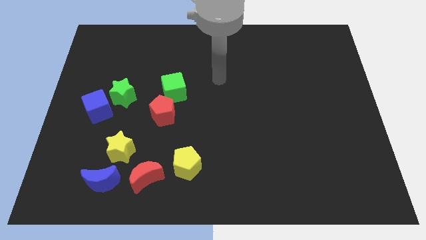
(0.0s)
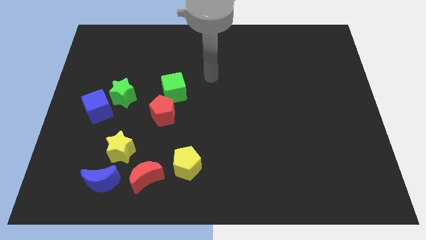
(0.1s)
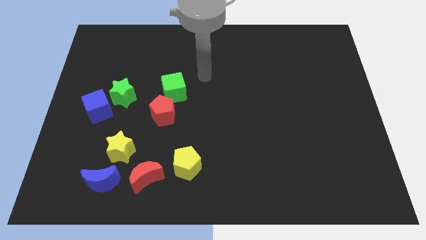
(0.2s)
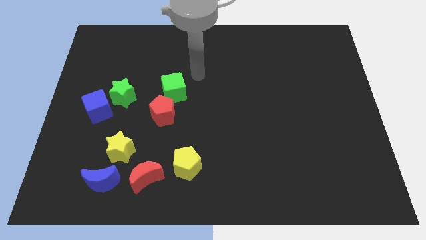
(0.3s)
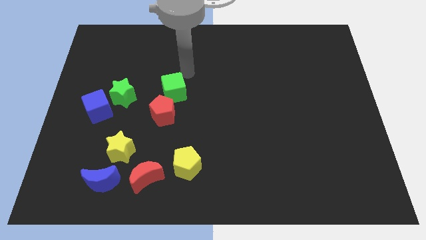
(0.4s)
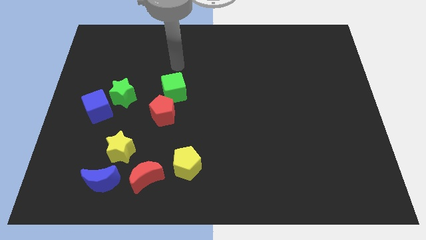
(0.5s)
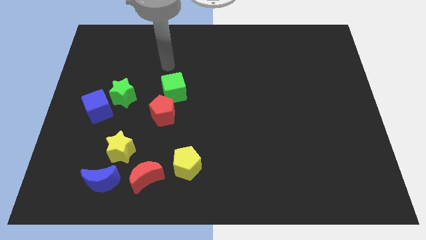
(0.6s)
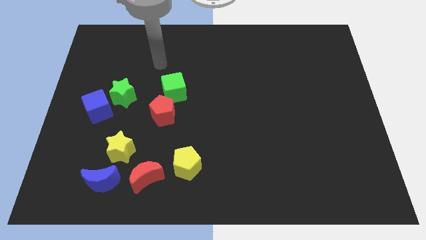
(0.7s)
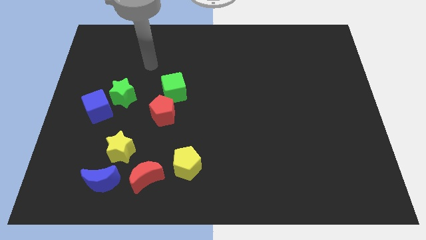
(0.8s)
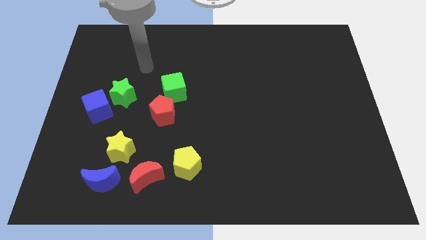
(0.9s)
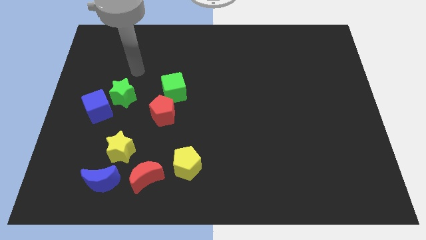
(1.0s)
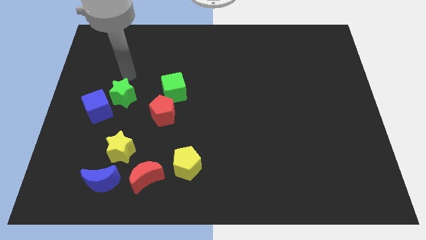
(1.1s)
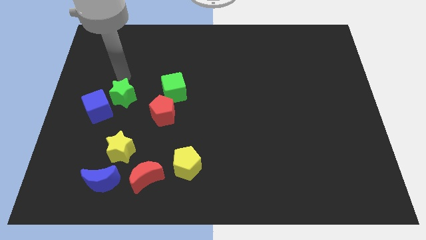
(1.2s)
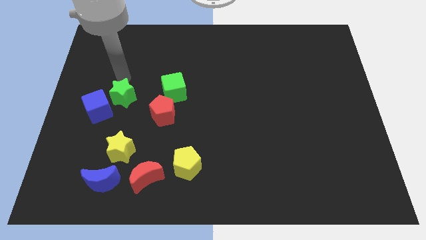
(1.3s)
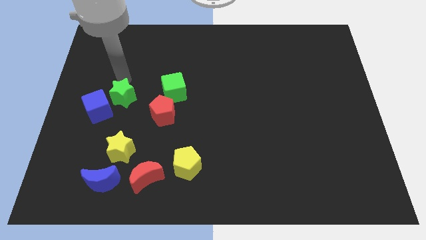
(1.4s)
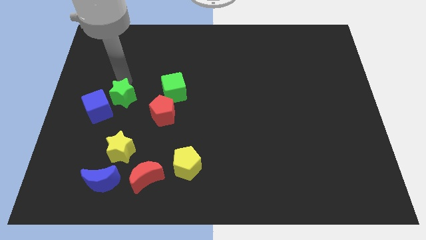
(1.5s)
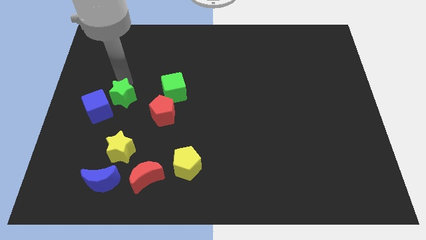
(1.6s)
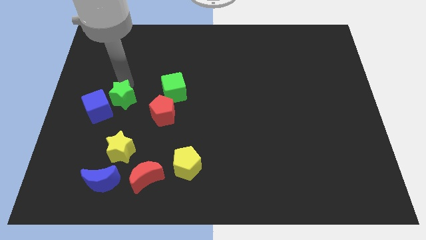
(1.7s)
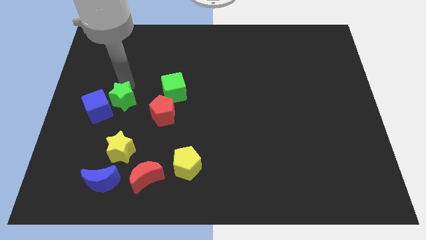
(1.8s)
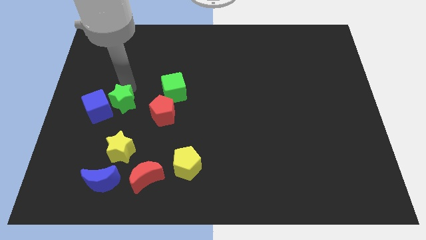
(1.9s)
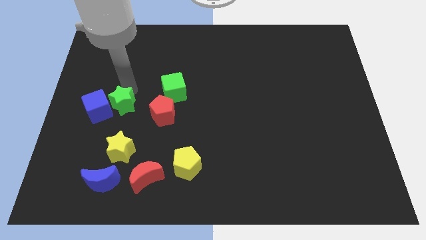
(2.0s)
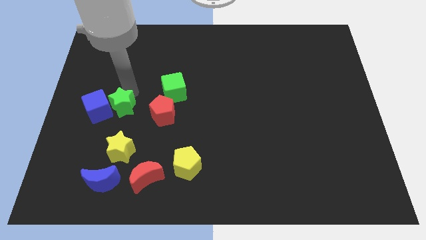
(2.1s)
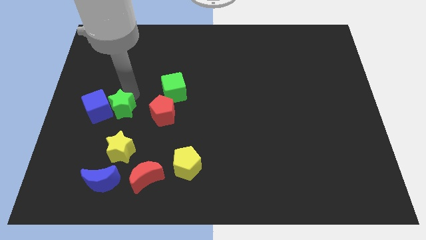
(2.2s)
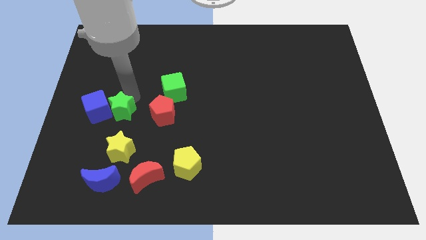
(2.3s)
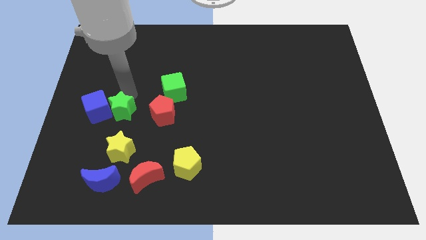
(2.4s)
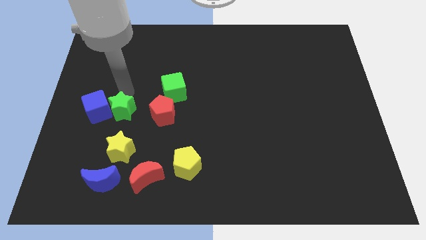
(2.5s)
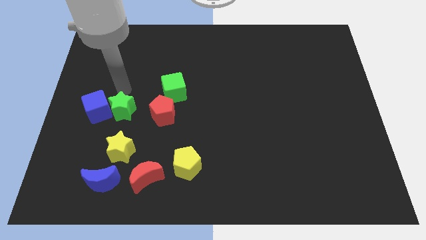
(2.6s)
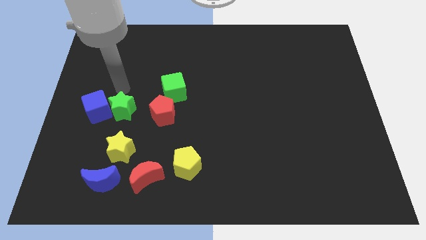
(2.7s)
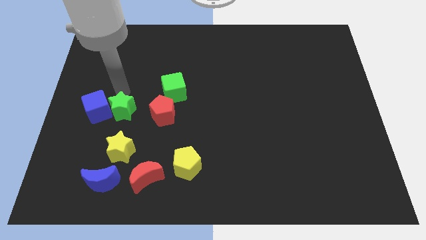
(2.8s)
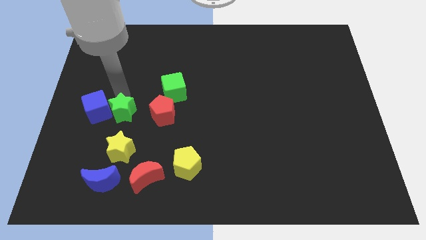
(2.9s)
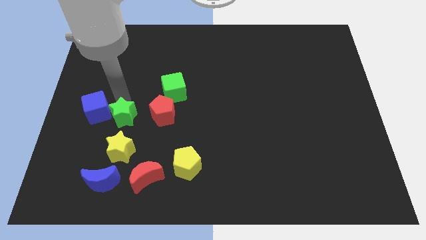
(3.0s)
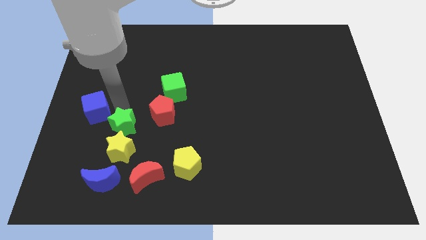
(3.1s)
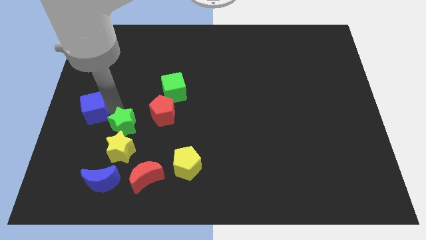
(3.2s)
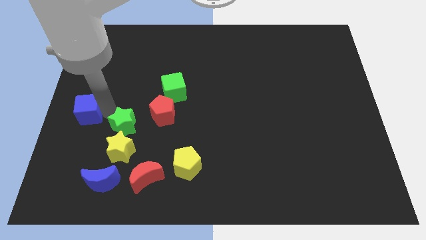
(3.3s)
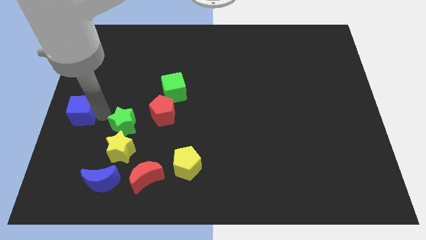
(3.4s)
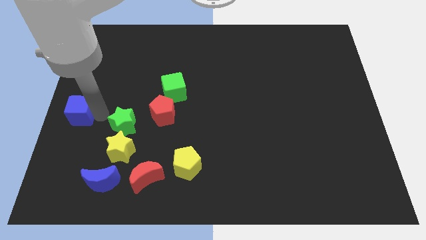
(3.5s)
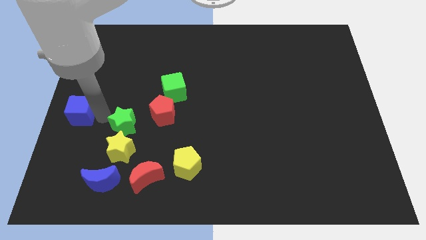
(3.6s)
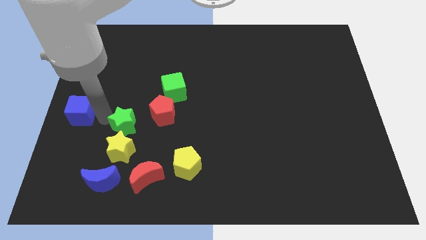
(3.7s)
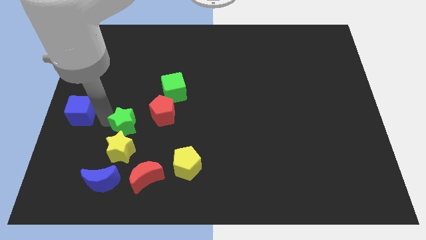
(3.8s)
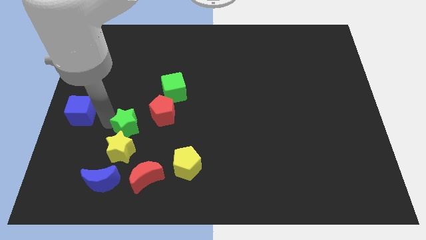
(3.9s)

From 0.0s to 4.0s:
push the green star downwards and then to the right slightly

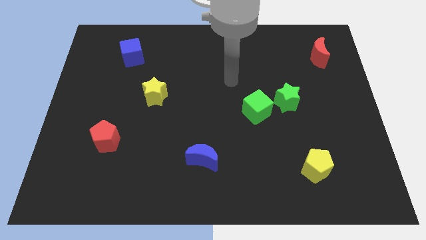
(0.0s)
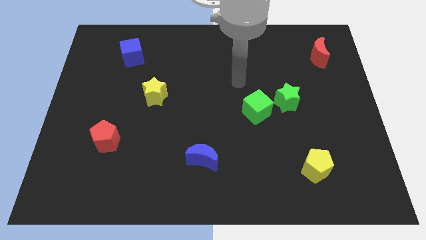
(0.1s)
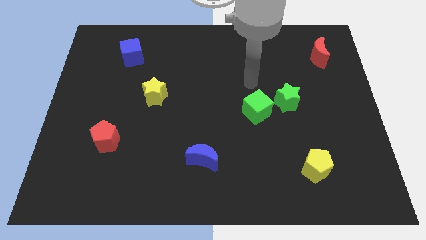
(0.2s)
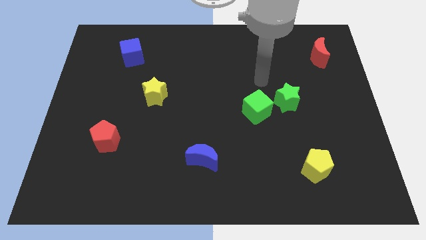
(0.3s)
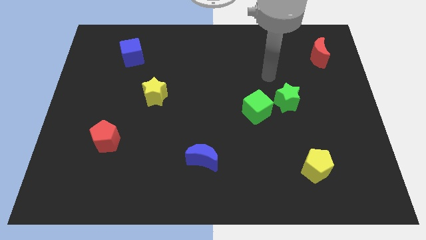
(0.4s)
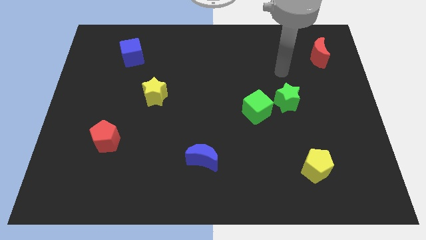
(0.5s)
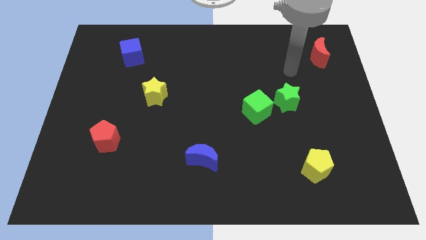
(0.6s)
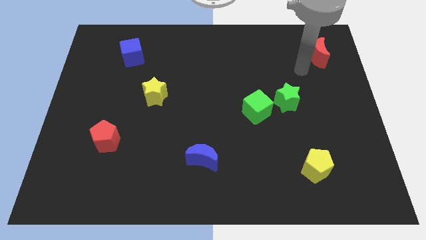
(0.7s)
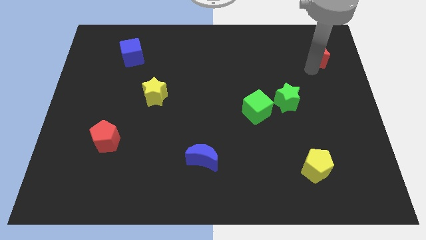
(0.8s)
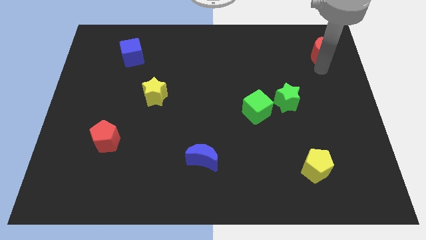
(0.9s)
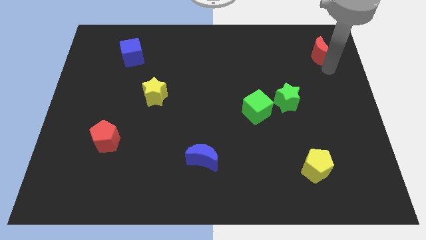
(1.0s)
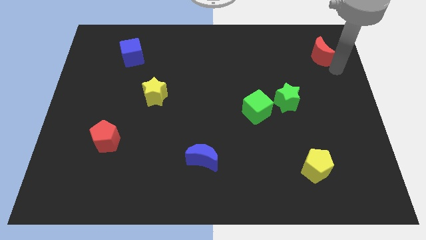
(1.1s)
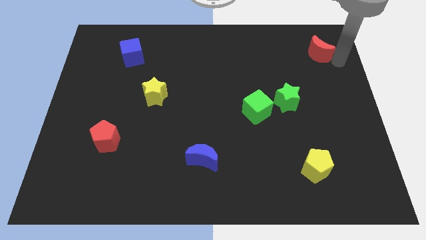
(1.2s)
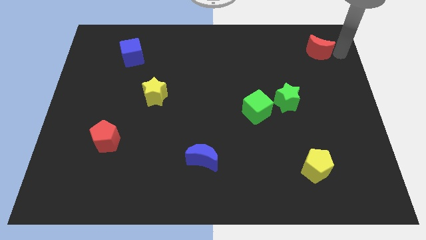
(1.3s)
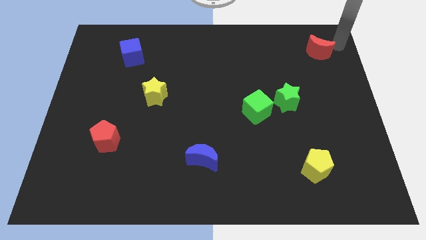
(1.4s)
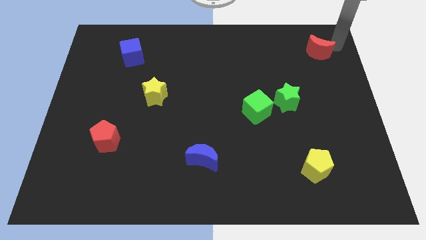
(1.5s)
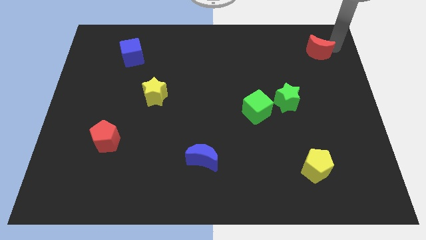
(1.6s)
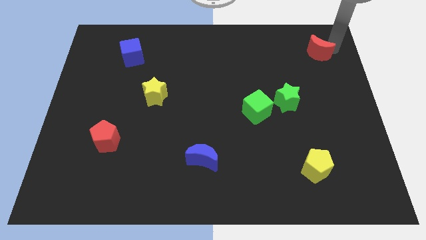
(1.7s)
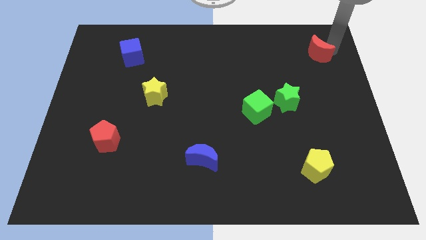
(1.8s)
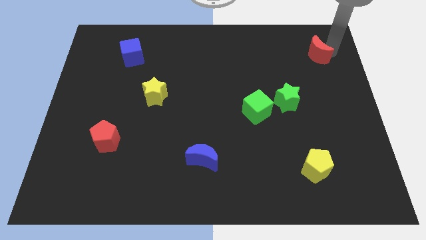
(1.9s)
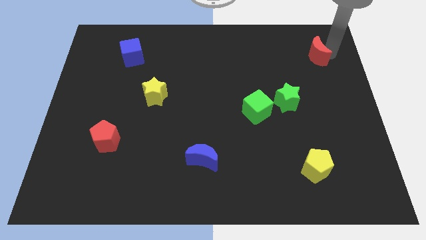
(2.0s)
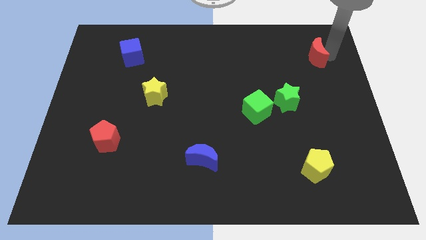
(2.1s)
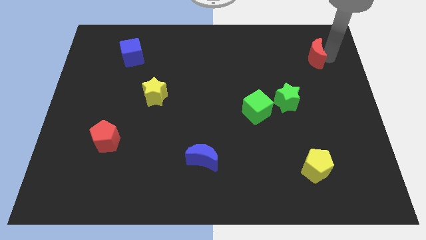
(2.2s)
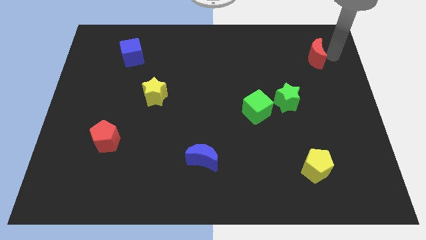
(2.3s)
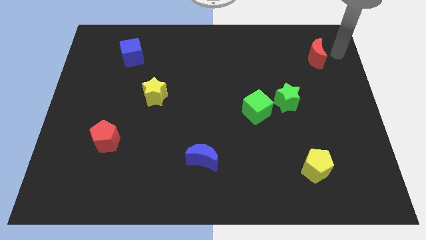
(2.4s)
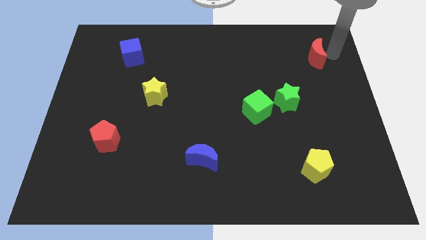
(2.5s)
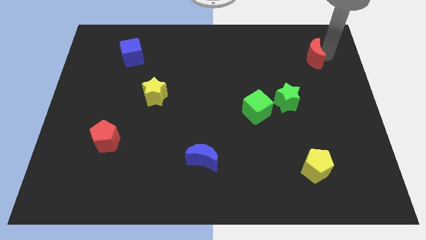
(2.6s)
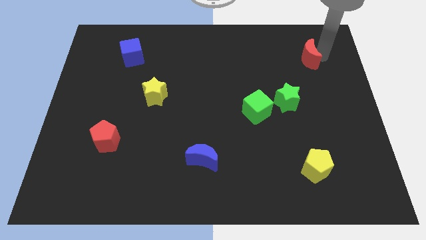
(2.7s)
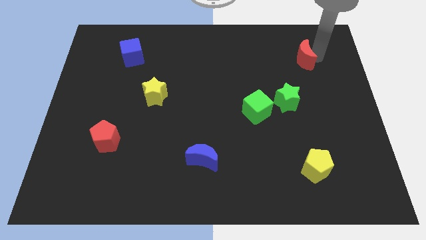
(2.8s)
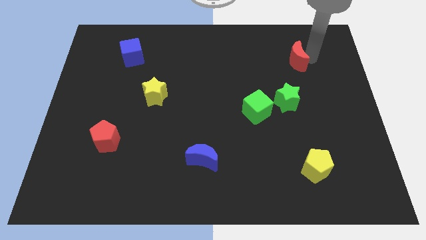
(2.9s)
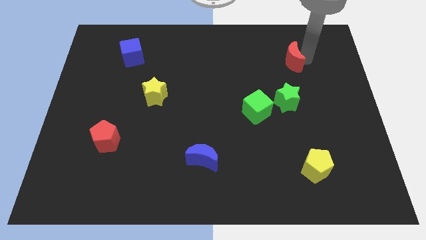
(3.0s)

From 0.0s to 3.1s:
push the red moon somewhat to the left

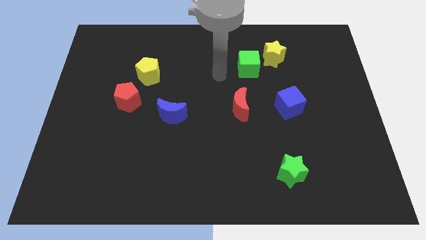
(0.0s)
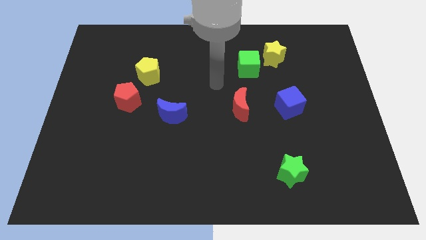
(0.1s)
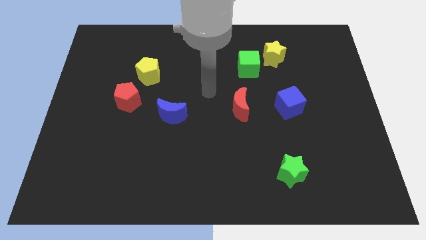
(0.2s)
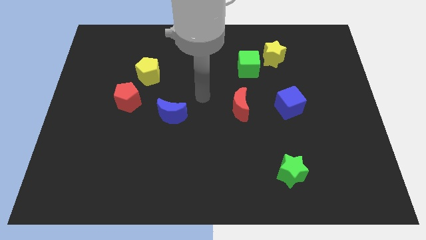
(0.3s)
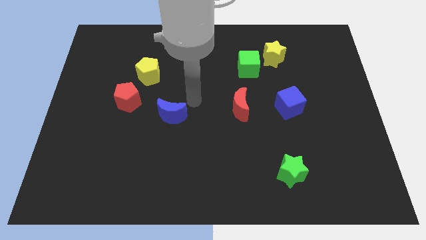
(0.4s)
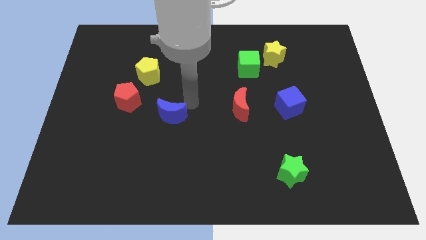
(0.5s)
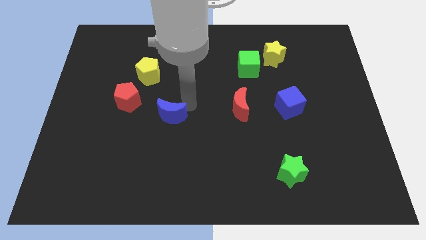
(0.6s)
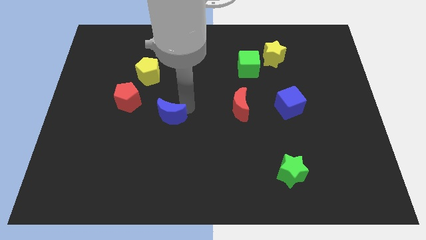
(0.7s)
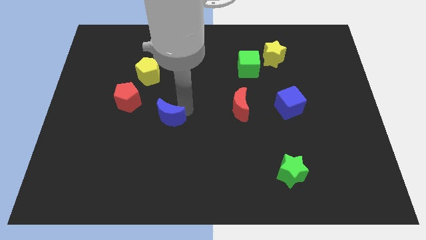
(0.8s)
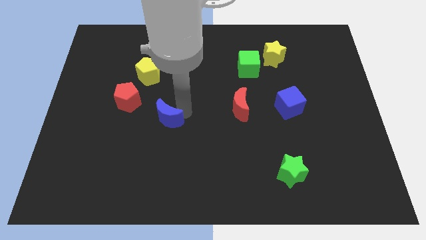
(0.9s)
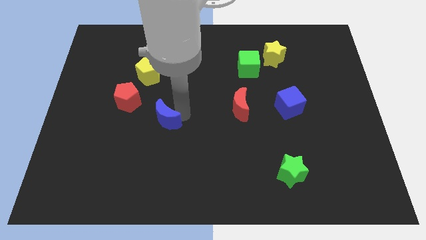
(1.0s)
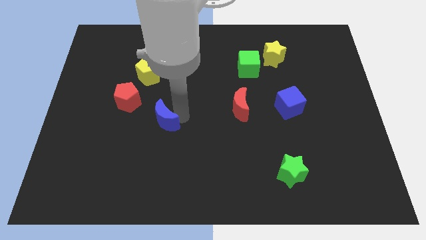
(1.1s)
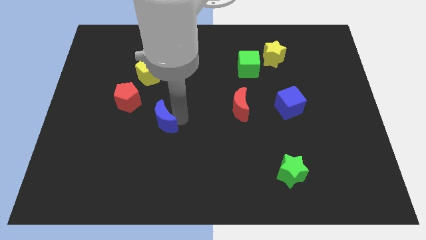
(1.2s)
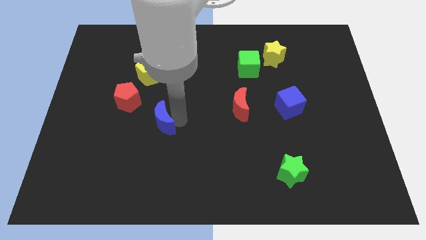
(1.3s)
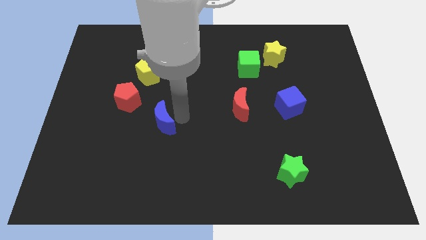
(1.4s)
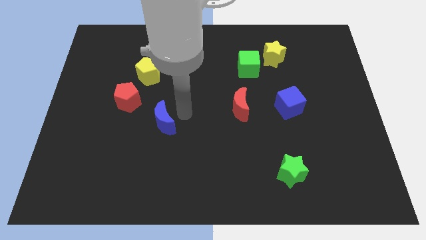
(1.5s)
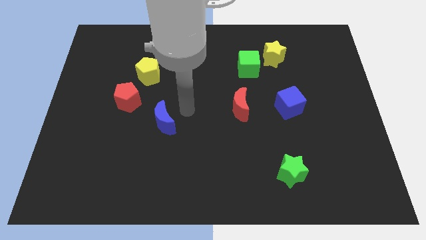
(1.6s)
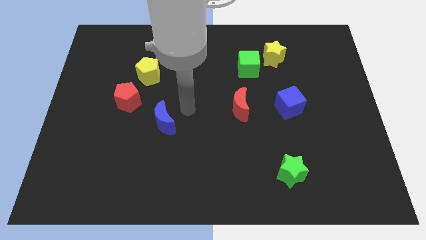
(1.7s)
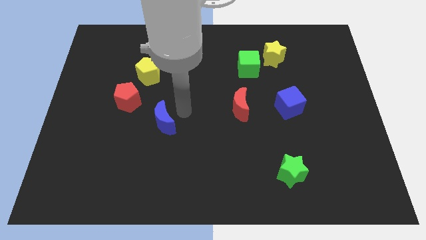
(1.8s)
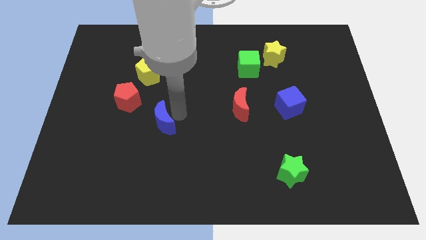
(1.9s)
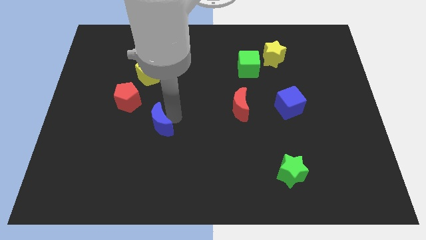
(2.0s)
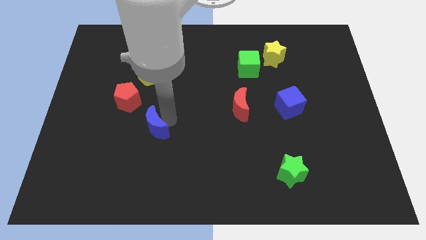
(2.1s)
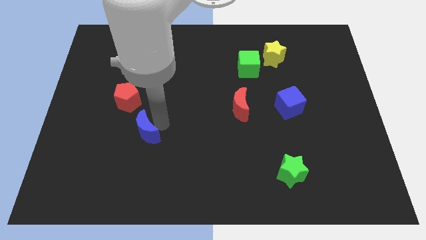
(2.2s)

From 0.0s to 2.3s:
slightly slide the blue moon down and then to the left
